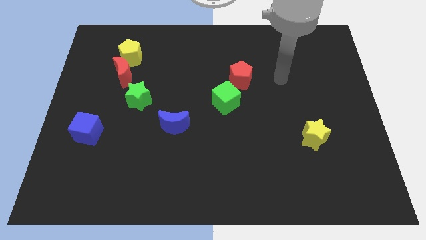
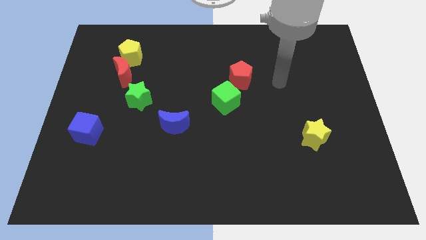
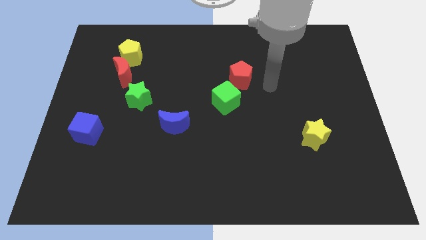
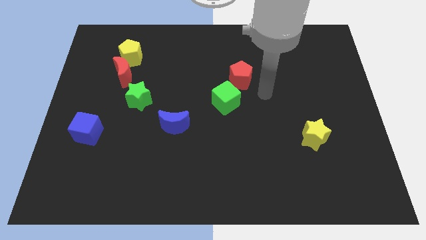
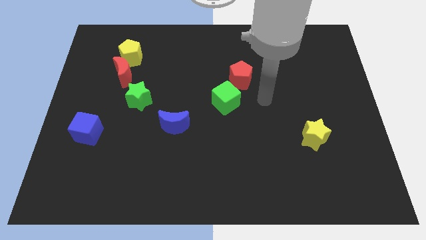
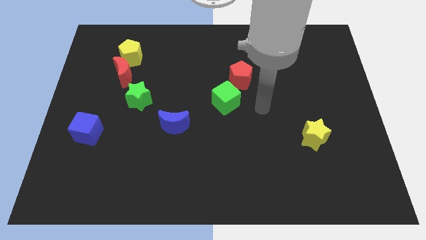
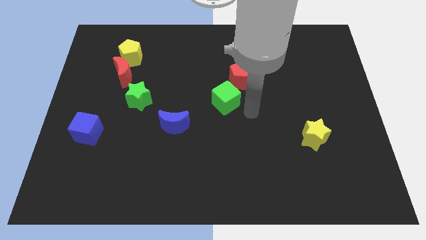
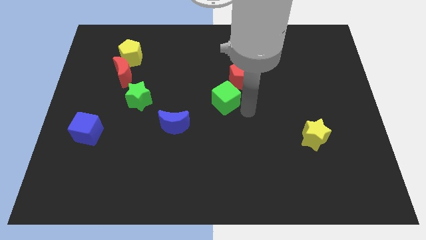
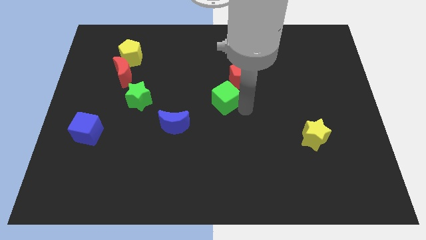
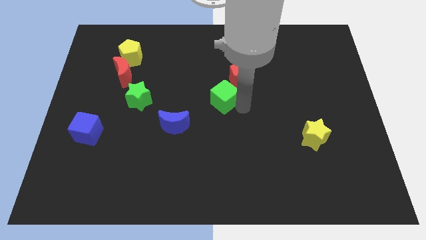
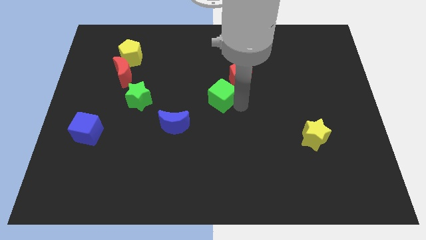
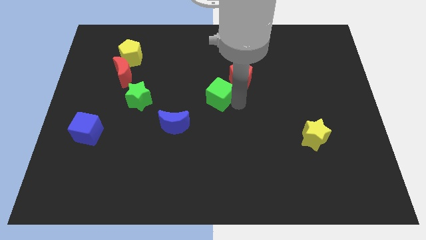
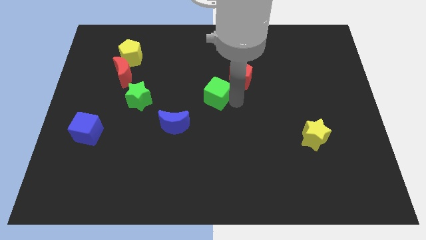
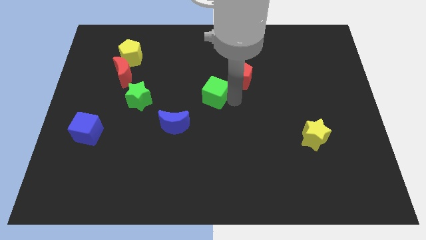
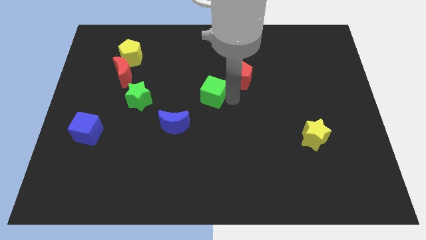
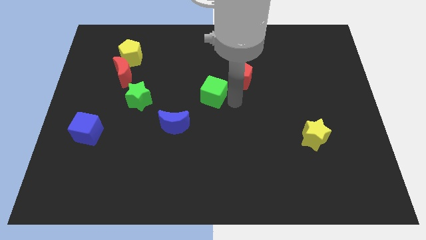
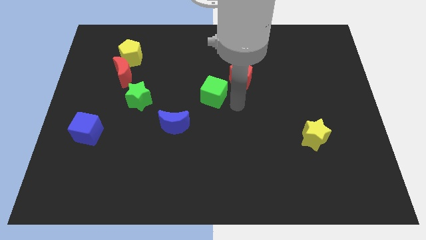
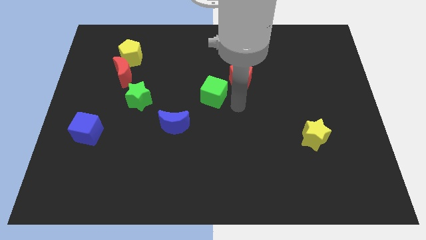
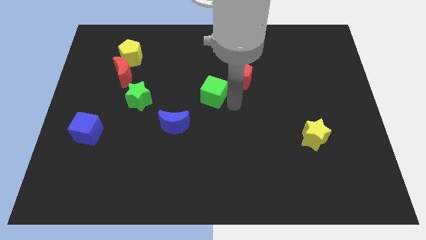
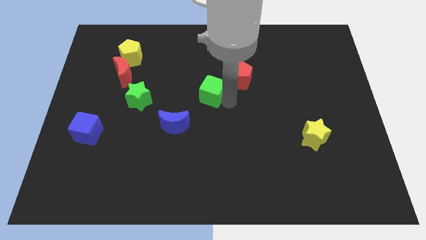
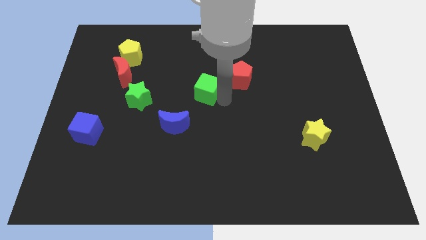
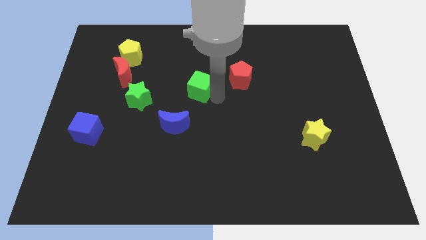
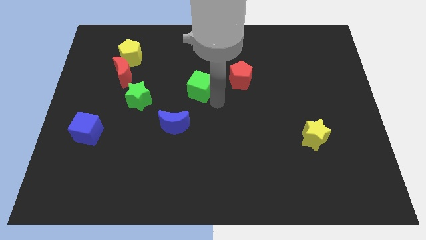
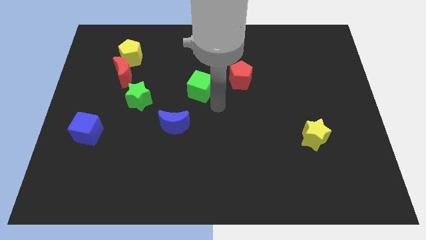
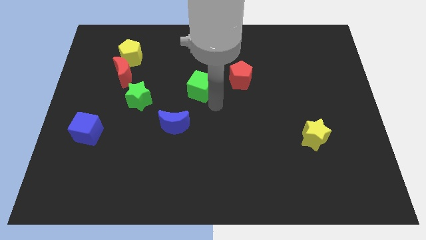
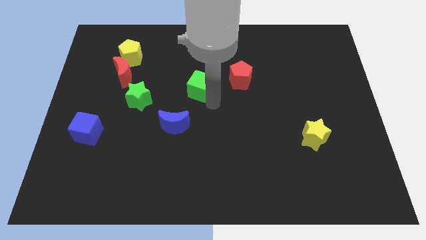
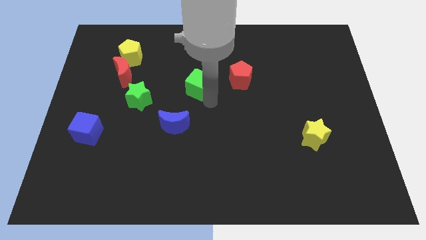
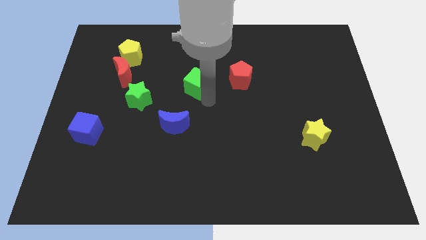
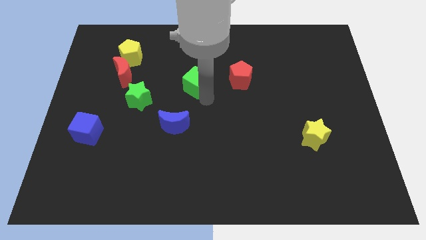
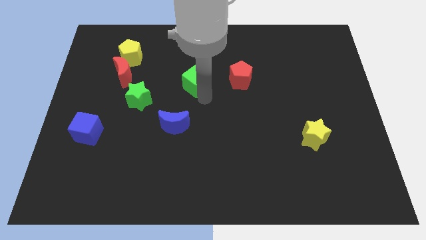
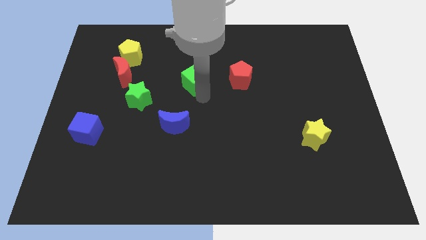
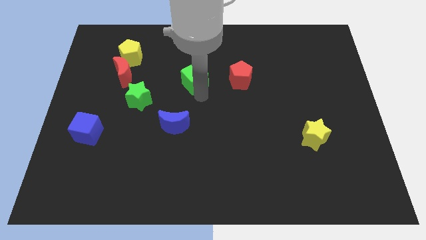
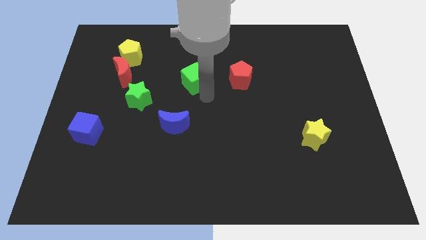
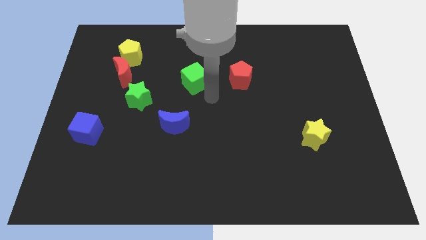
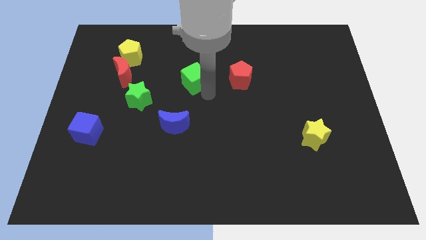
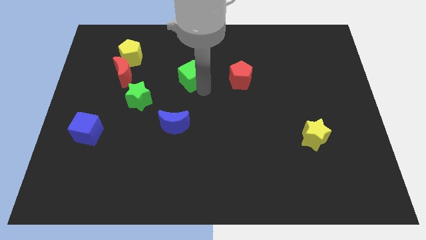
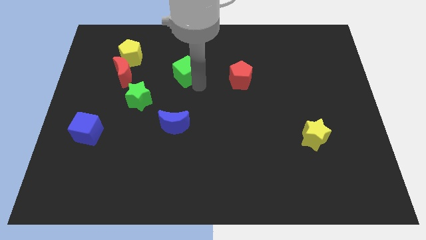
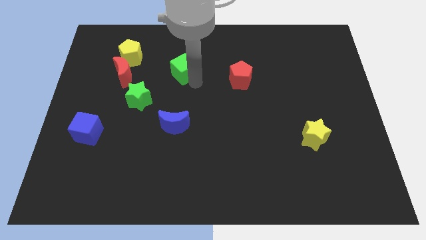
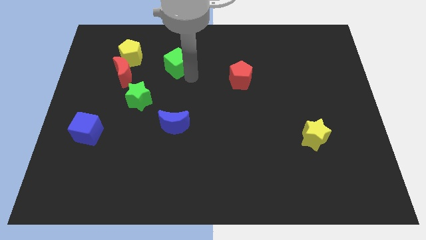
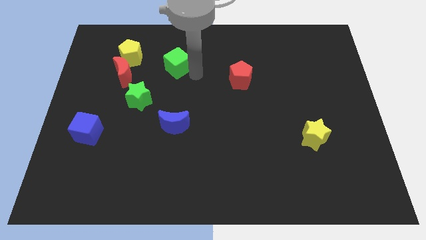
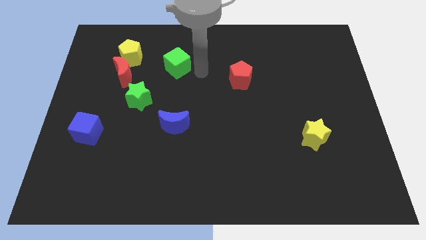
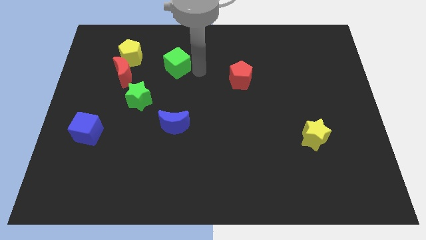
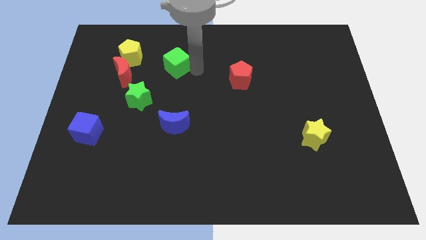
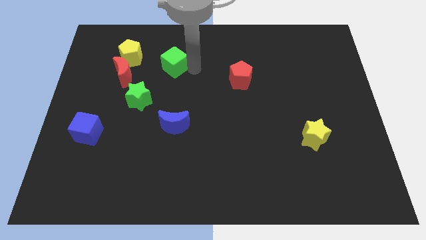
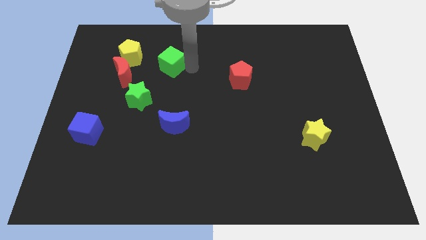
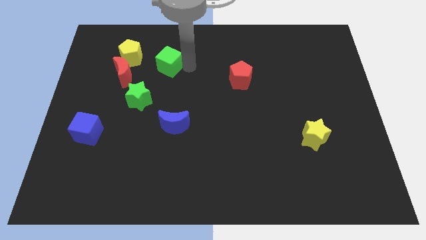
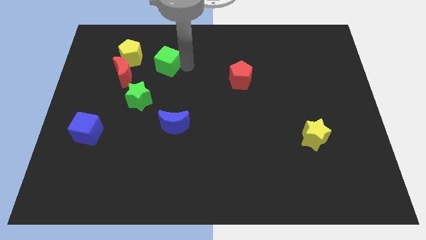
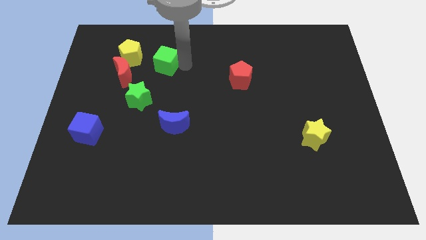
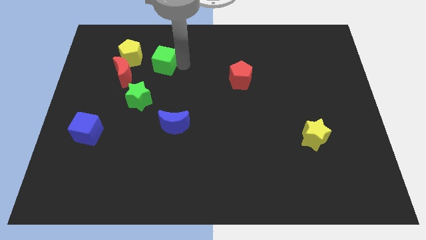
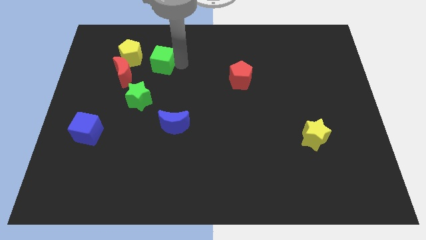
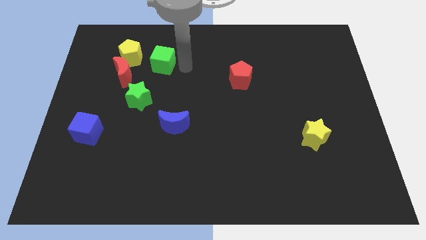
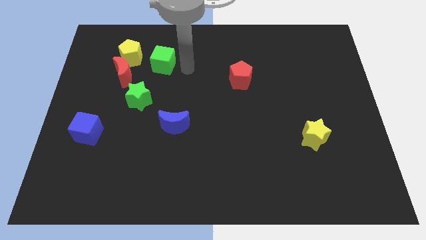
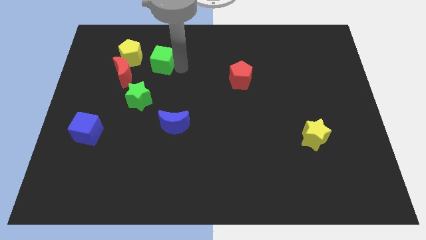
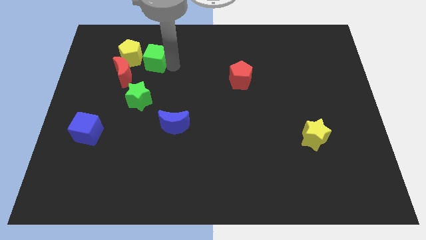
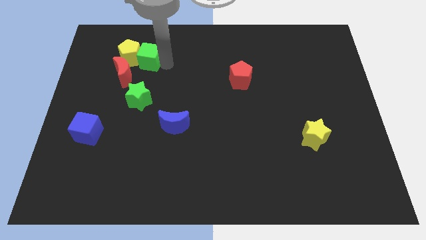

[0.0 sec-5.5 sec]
put the green cube next to the yellow pentagon

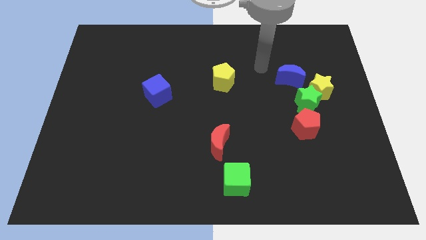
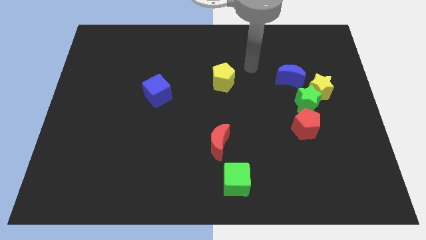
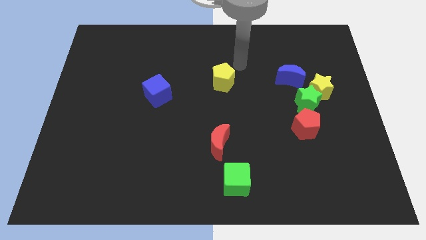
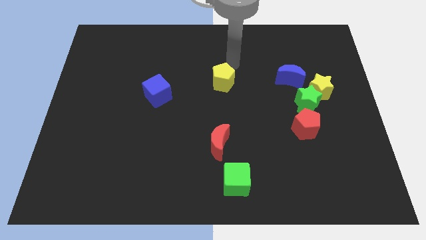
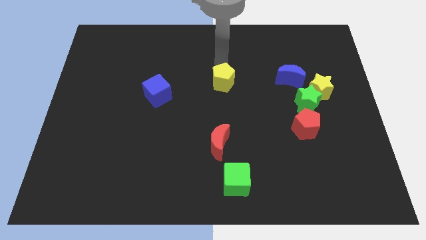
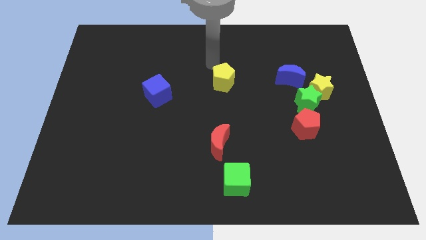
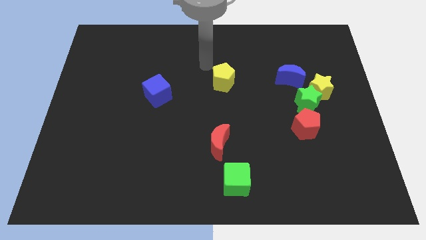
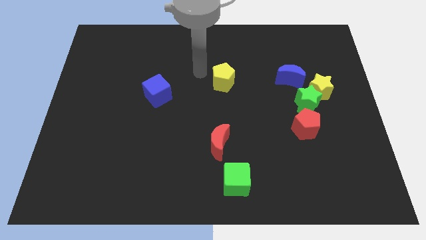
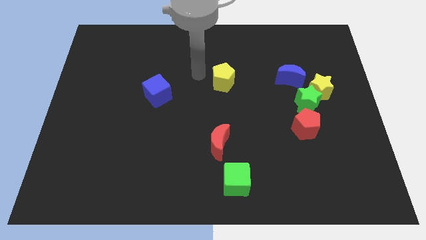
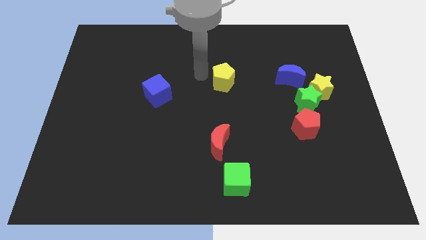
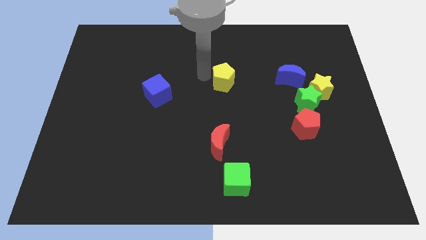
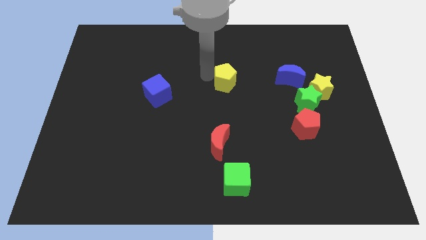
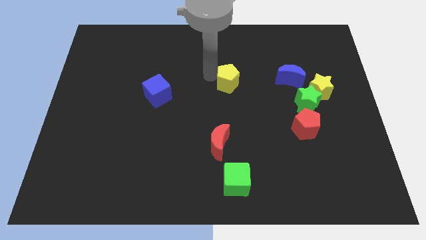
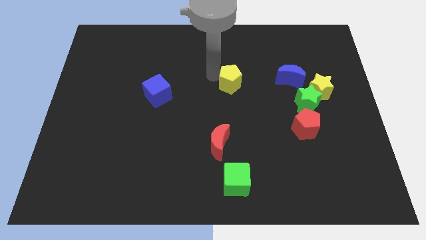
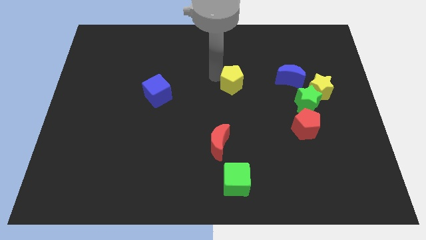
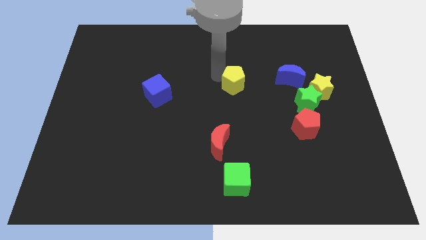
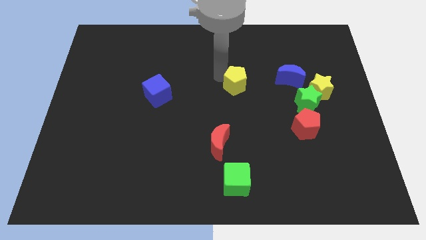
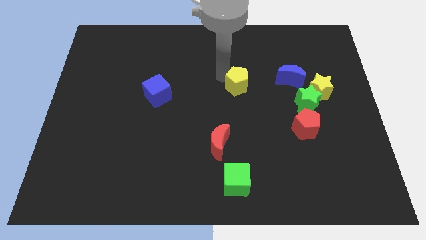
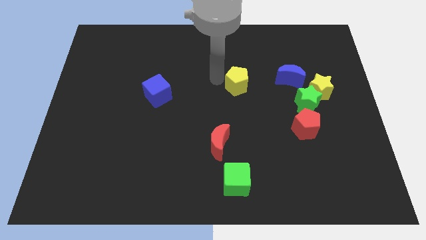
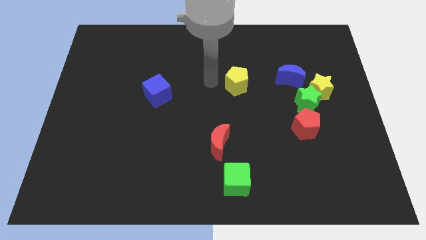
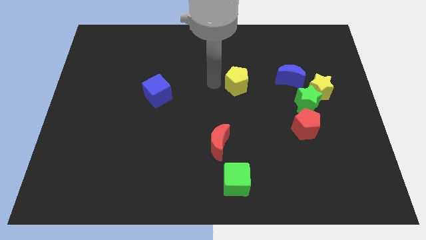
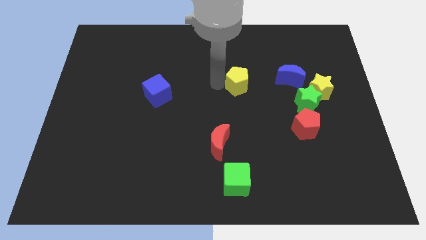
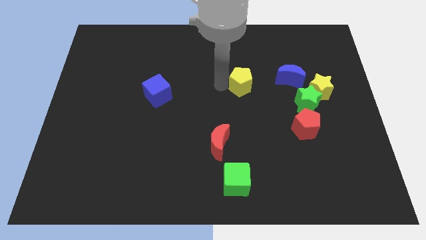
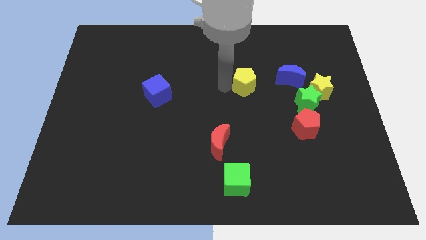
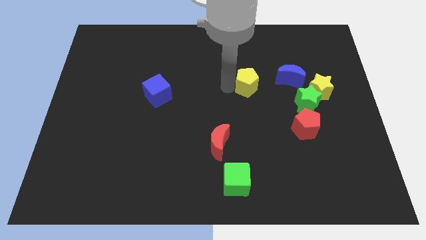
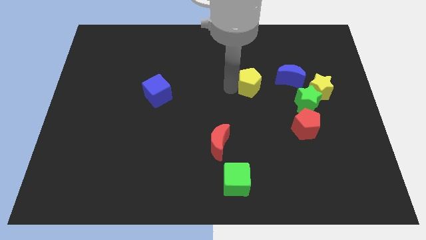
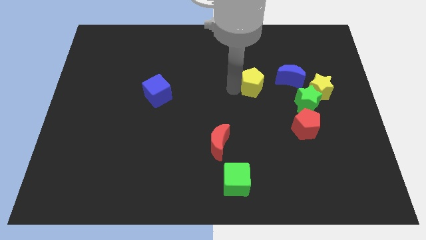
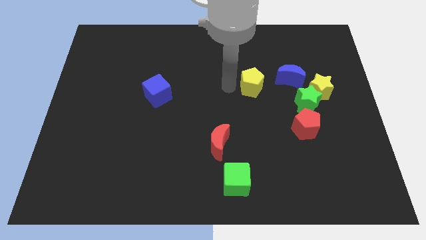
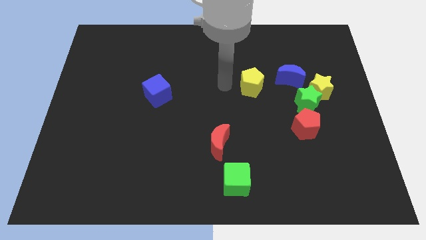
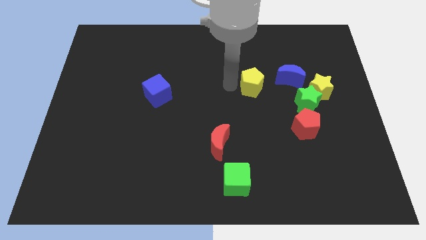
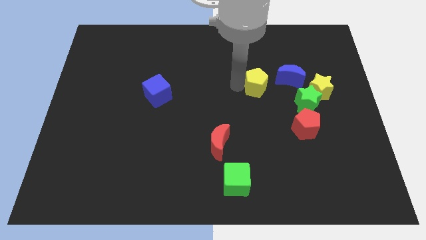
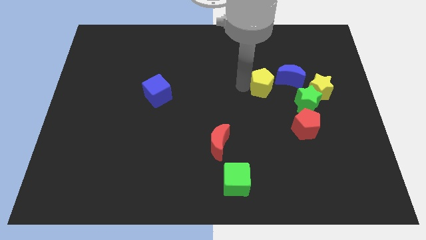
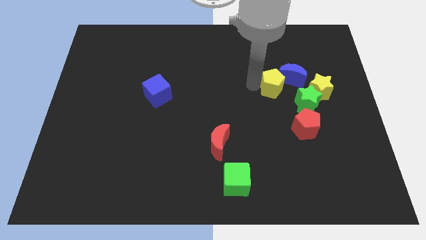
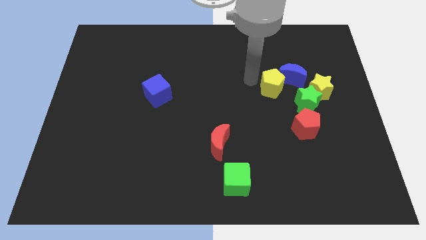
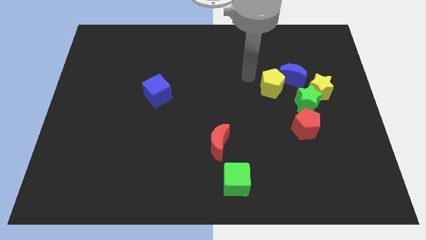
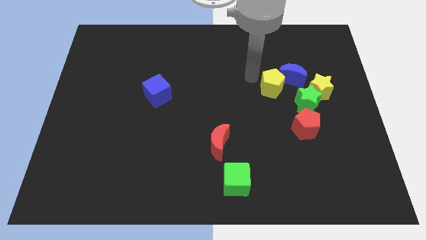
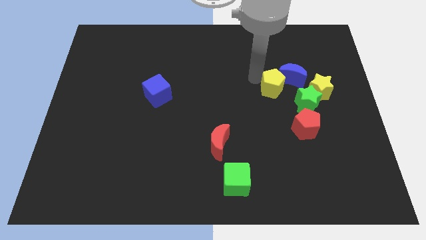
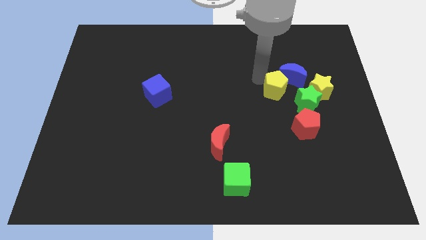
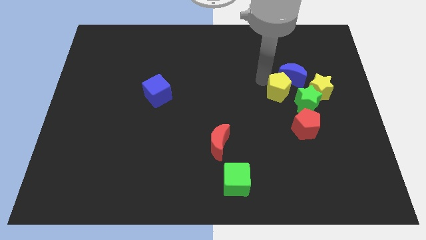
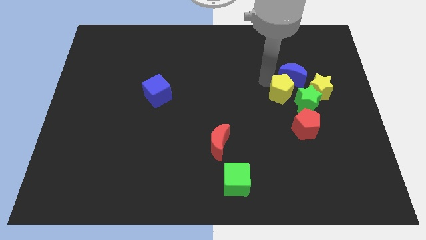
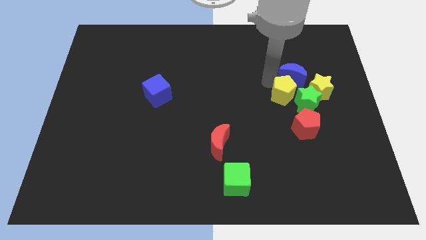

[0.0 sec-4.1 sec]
slide the yellow pentagon close to the green star
